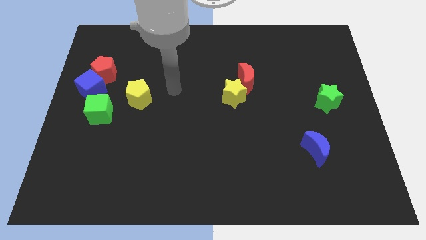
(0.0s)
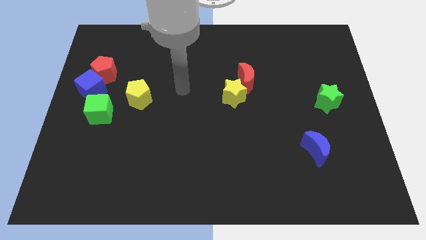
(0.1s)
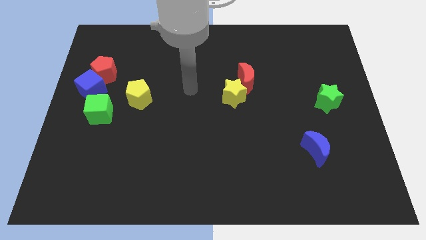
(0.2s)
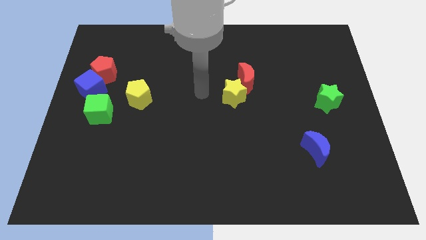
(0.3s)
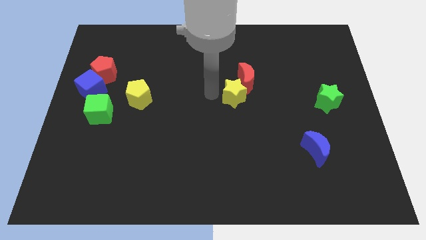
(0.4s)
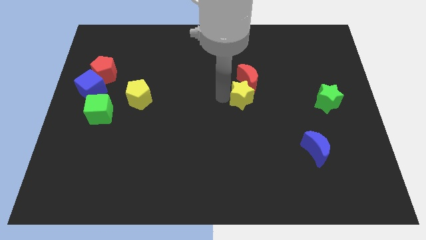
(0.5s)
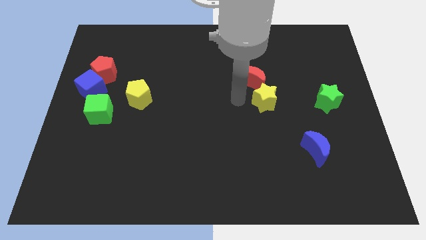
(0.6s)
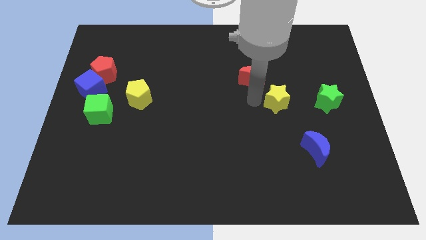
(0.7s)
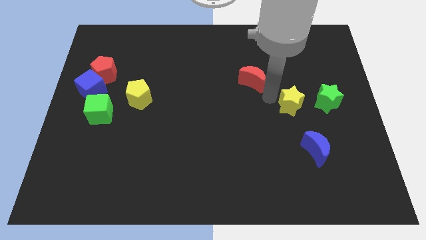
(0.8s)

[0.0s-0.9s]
separate the red moon from the yellow star

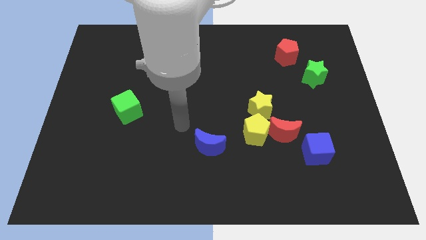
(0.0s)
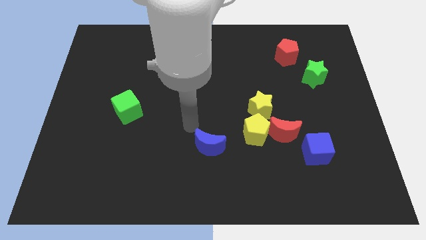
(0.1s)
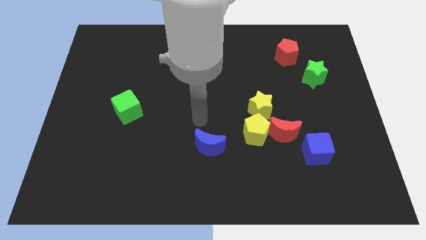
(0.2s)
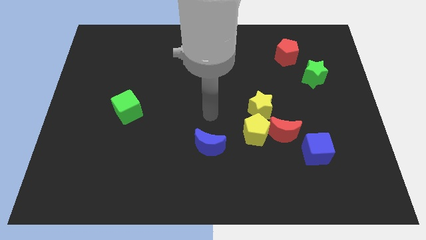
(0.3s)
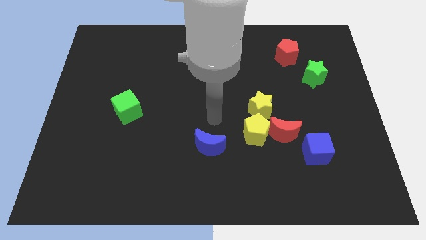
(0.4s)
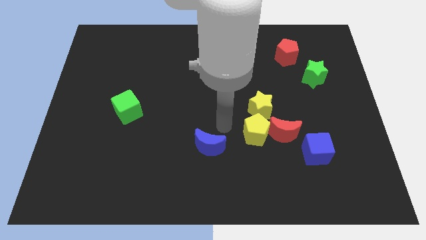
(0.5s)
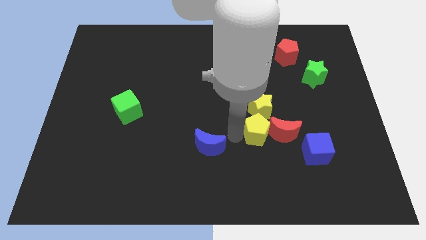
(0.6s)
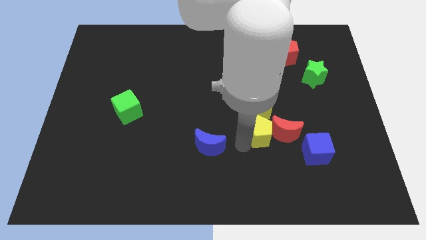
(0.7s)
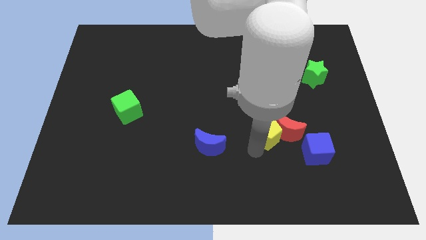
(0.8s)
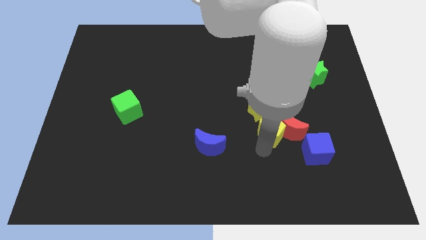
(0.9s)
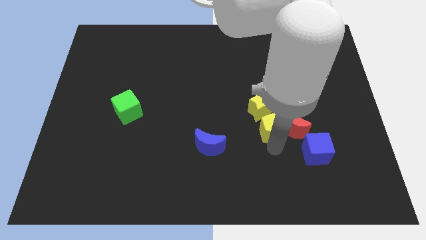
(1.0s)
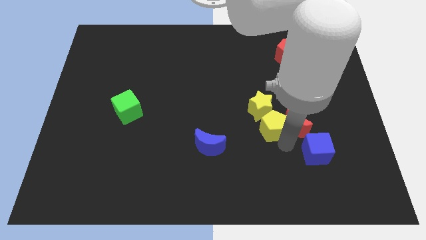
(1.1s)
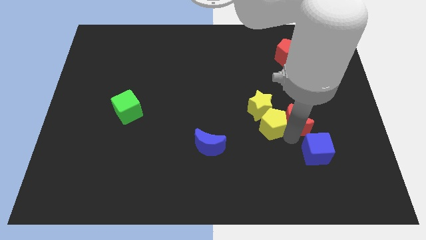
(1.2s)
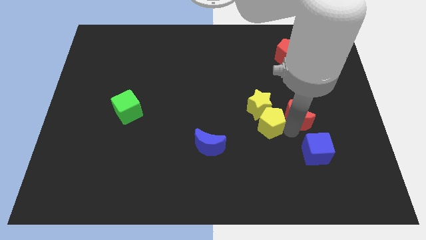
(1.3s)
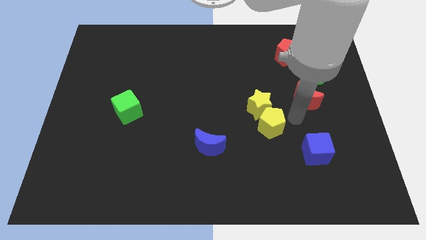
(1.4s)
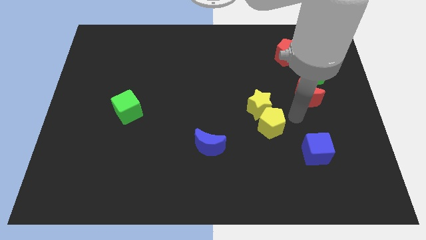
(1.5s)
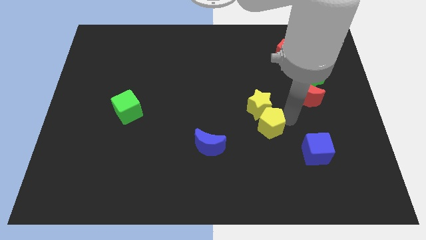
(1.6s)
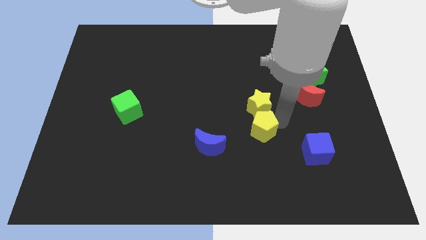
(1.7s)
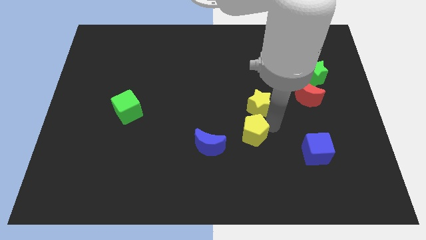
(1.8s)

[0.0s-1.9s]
separate the yellow pentagon from the red moon and yellow star

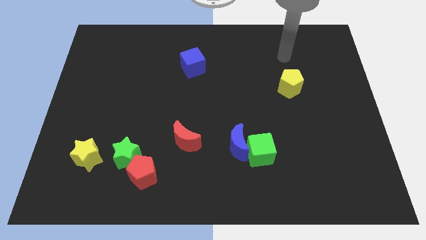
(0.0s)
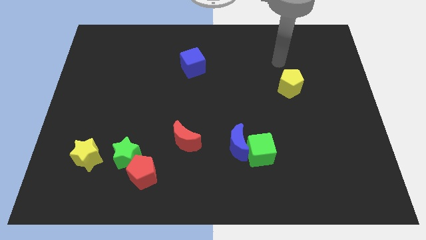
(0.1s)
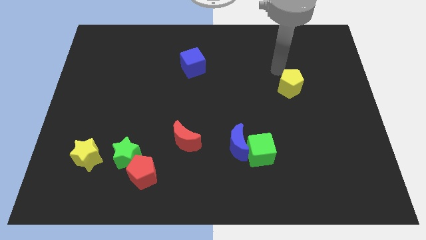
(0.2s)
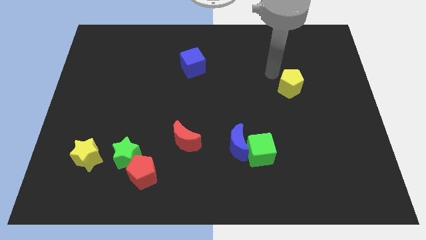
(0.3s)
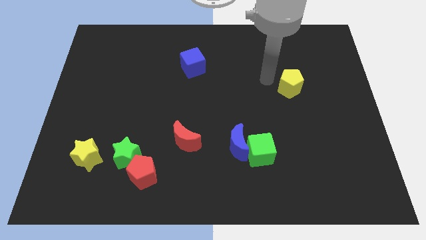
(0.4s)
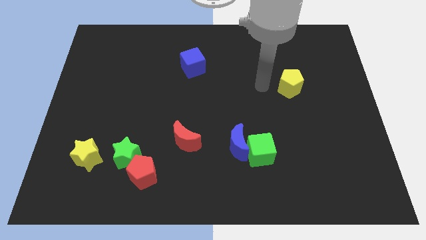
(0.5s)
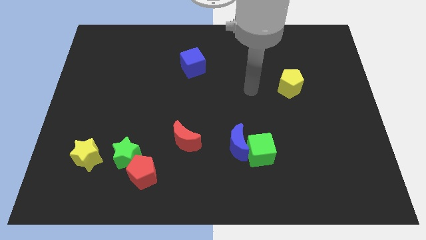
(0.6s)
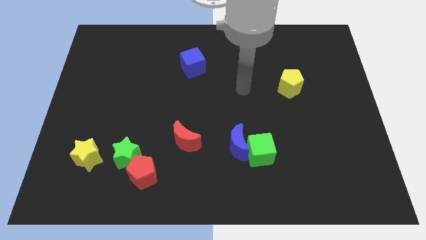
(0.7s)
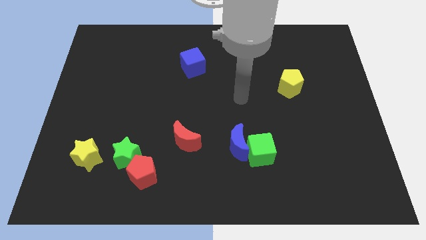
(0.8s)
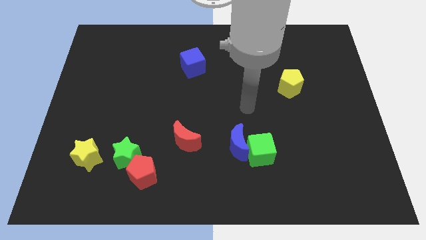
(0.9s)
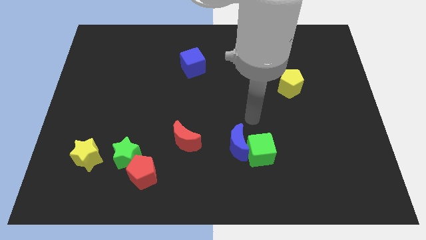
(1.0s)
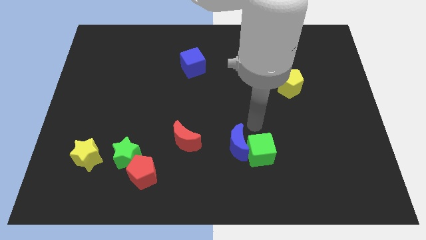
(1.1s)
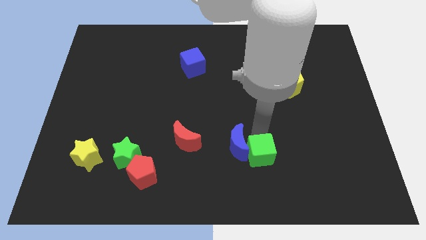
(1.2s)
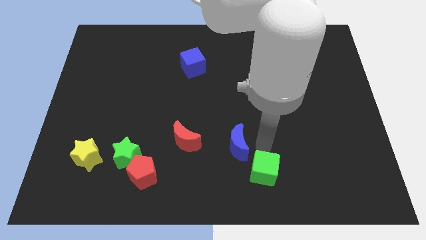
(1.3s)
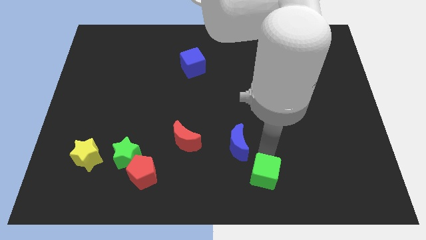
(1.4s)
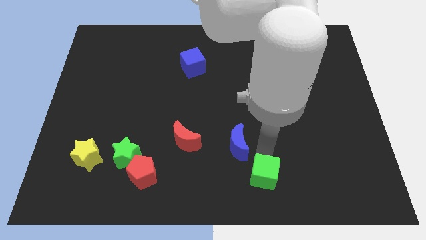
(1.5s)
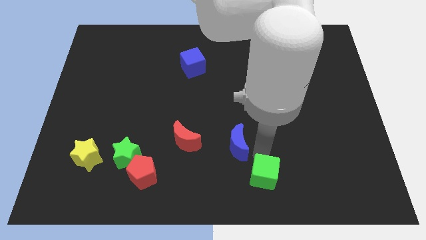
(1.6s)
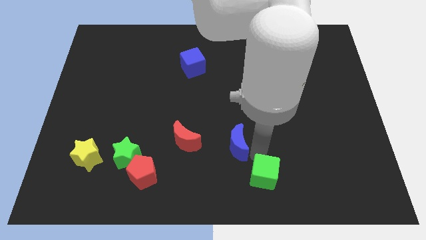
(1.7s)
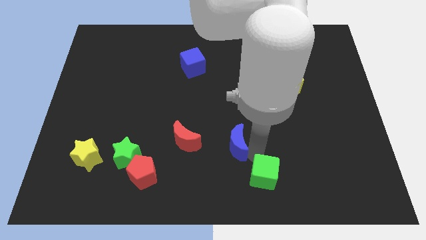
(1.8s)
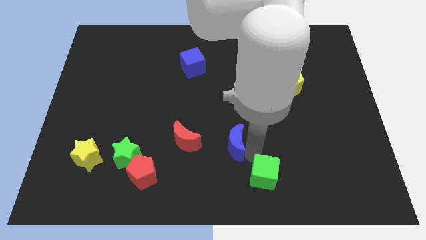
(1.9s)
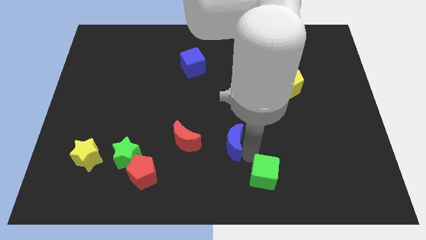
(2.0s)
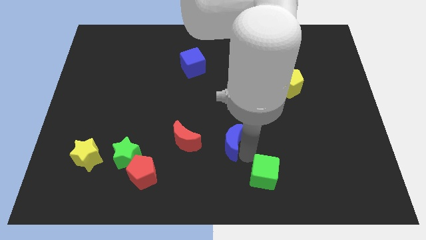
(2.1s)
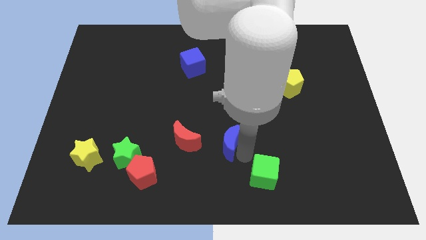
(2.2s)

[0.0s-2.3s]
move the blue moon away from the green cube

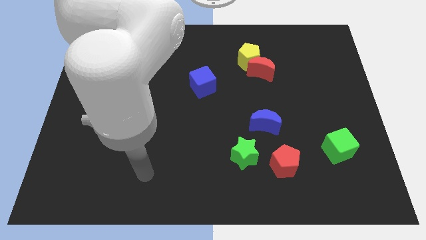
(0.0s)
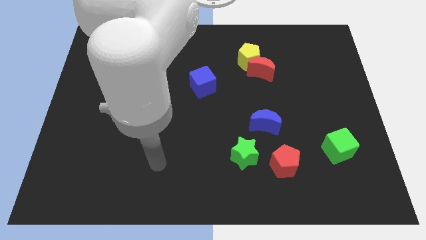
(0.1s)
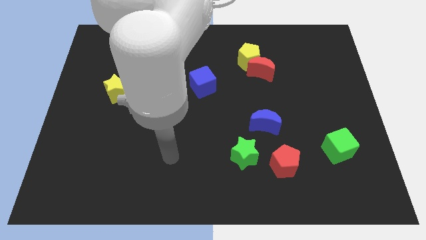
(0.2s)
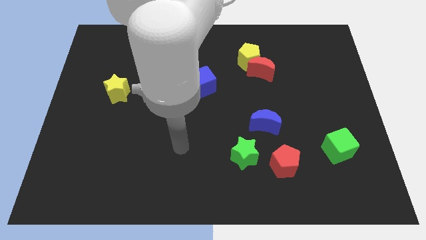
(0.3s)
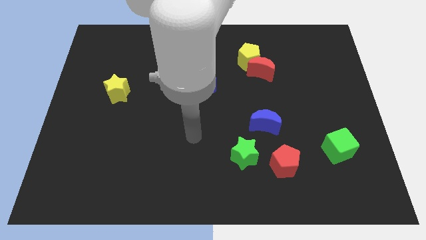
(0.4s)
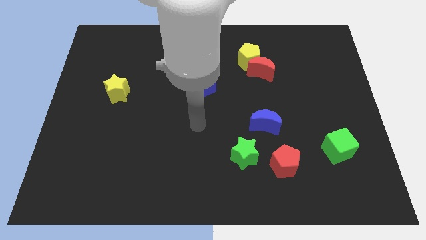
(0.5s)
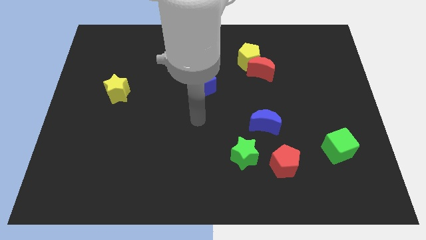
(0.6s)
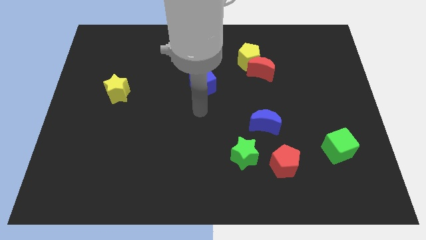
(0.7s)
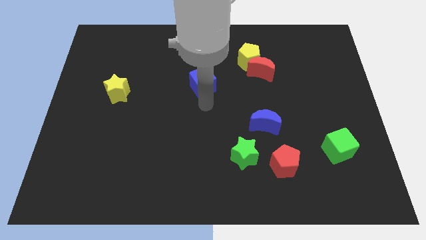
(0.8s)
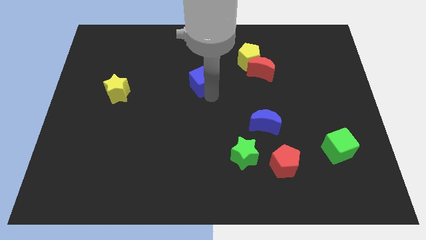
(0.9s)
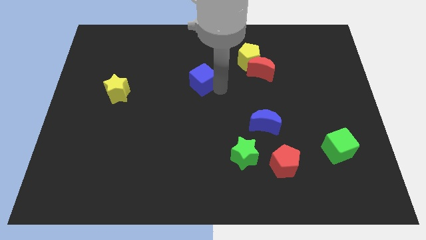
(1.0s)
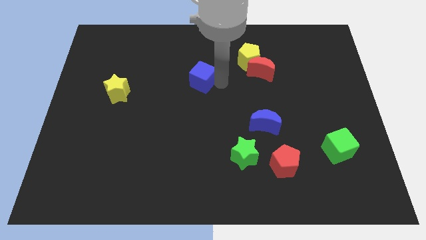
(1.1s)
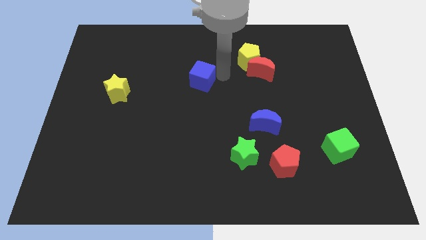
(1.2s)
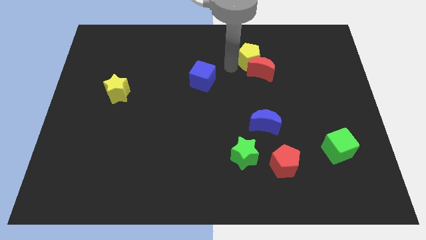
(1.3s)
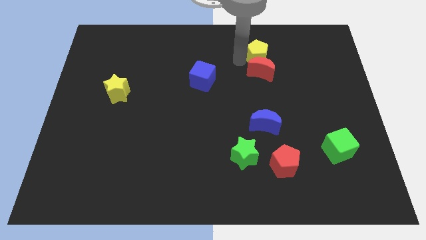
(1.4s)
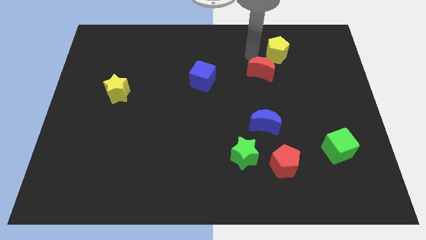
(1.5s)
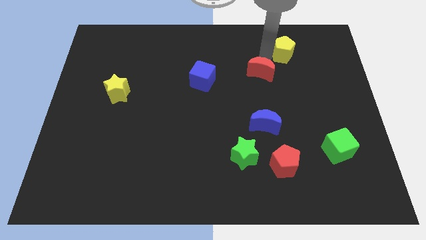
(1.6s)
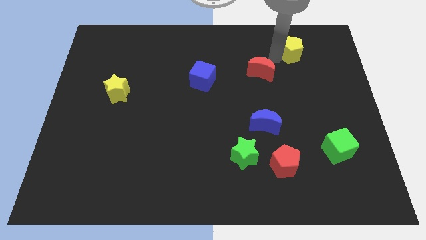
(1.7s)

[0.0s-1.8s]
separate the red moon from the yellow pentagon

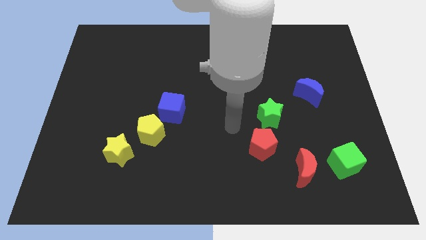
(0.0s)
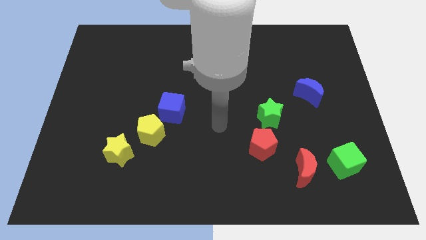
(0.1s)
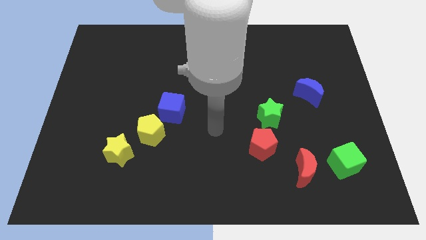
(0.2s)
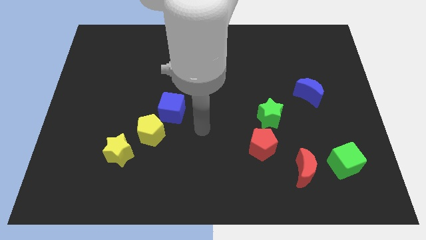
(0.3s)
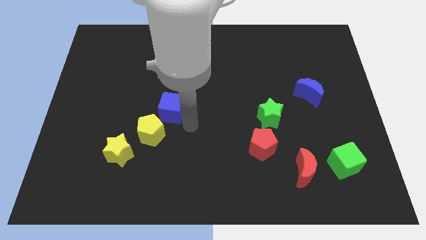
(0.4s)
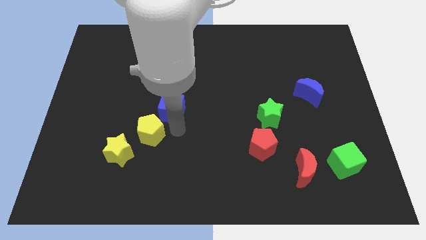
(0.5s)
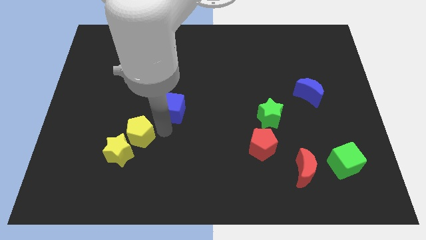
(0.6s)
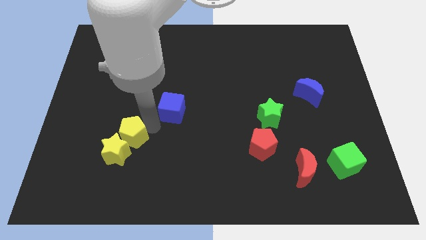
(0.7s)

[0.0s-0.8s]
pull the blue cube apart from the yellow pentagon

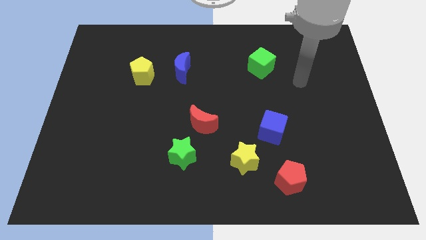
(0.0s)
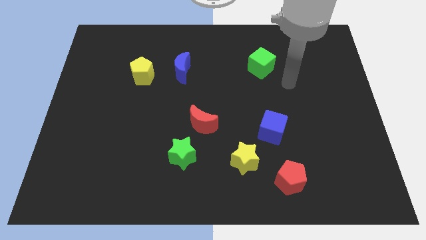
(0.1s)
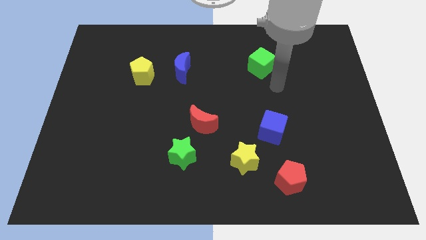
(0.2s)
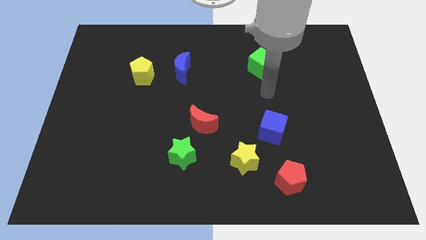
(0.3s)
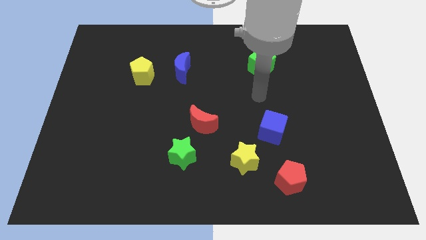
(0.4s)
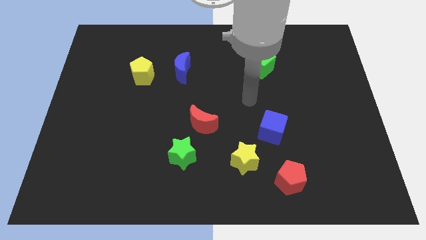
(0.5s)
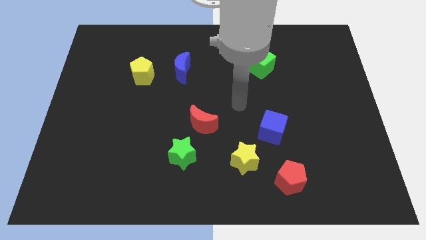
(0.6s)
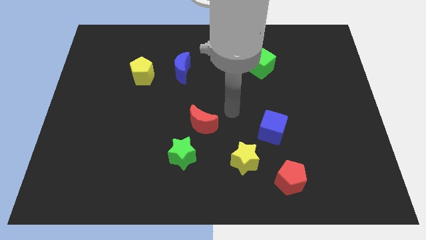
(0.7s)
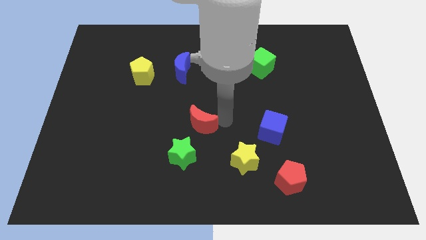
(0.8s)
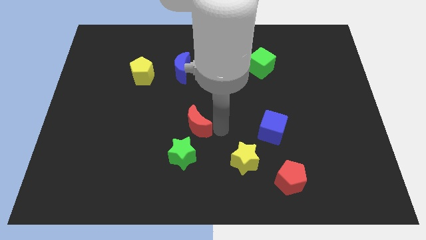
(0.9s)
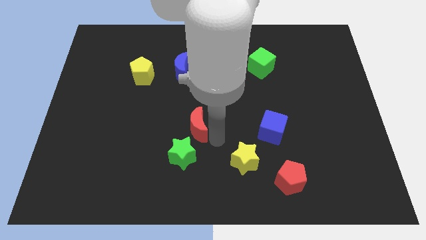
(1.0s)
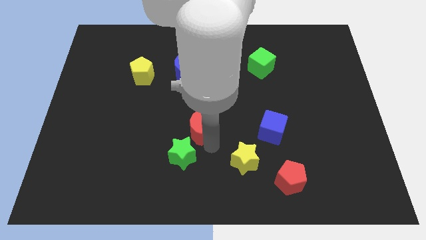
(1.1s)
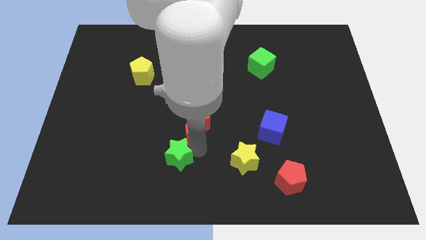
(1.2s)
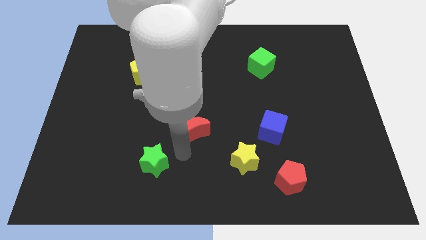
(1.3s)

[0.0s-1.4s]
separate the red moon from the green star

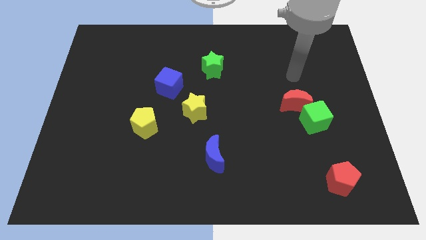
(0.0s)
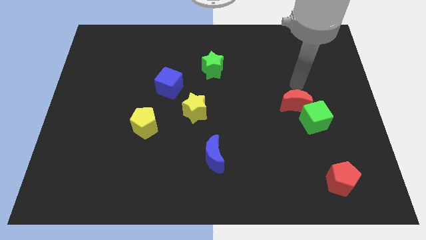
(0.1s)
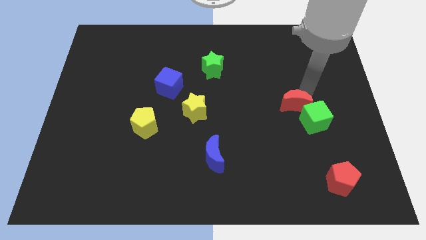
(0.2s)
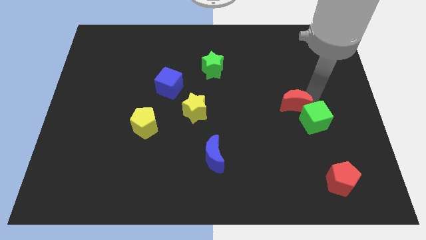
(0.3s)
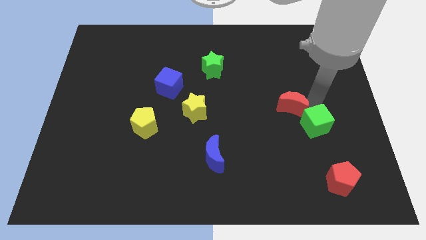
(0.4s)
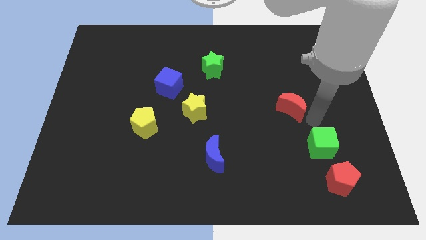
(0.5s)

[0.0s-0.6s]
separate the red moon from the green cube
